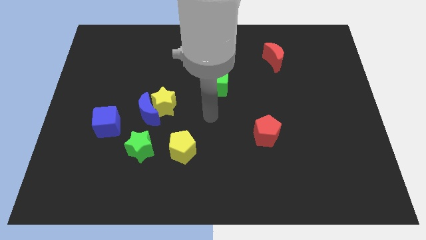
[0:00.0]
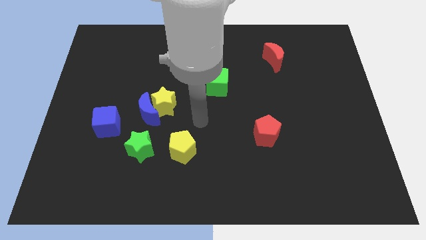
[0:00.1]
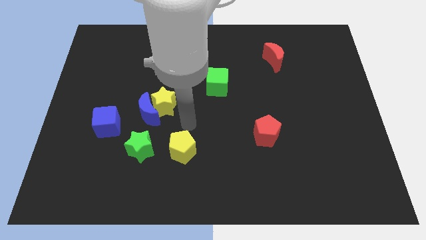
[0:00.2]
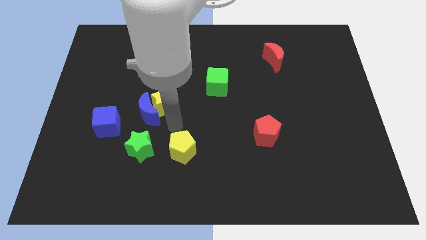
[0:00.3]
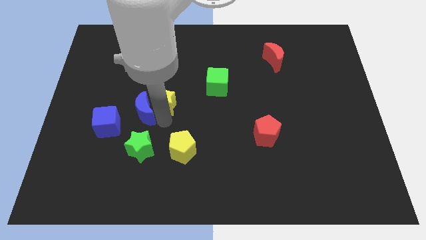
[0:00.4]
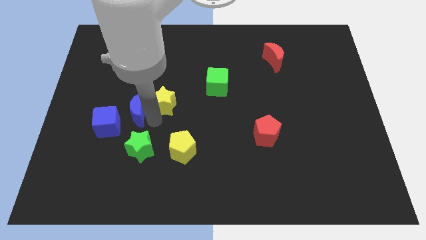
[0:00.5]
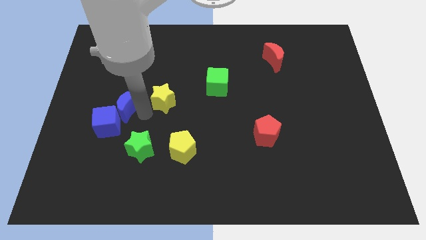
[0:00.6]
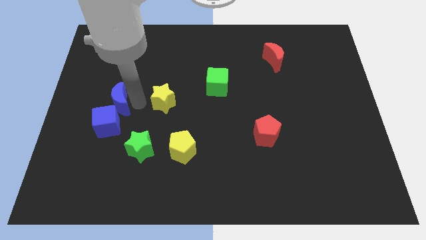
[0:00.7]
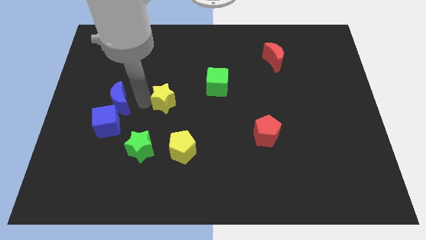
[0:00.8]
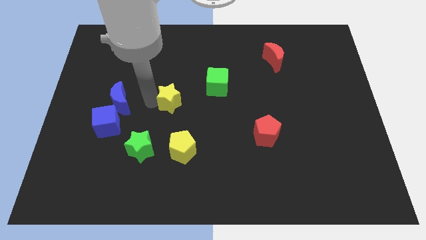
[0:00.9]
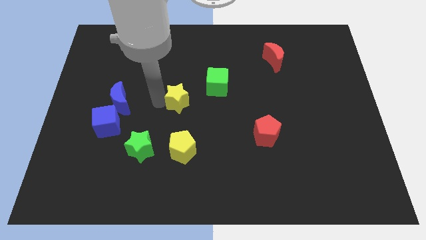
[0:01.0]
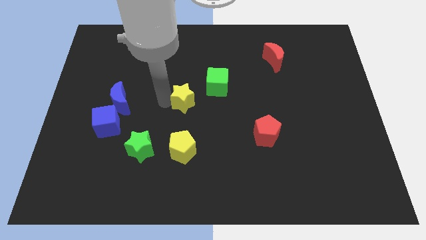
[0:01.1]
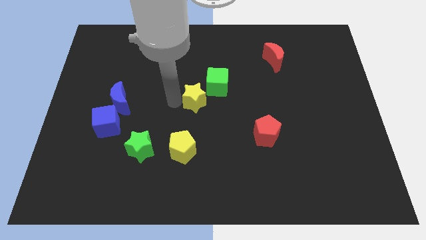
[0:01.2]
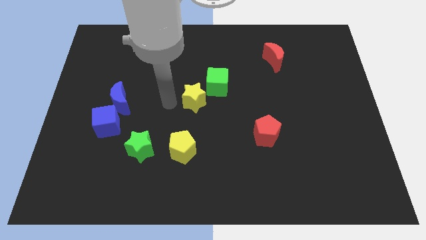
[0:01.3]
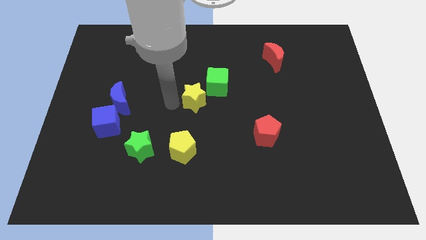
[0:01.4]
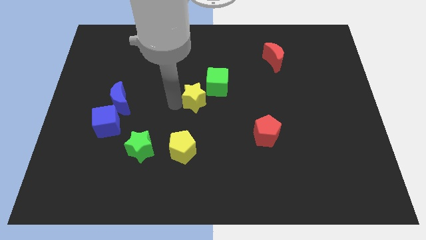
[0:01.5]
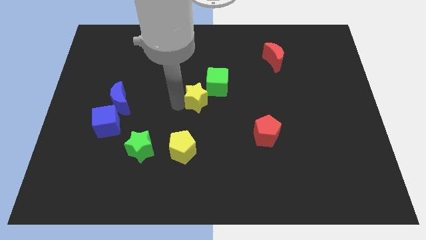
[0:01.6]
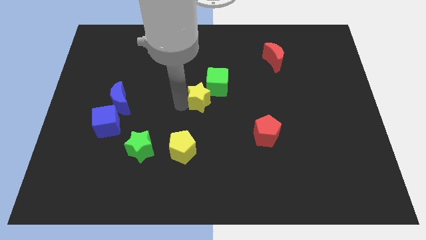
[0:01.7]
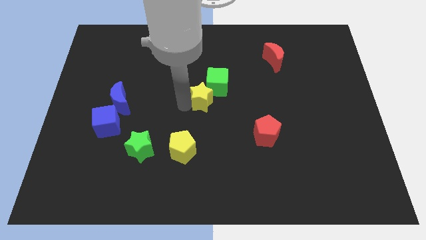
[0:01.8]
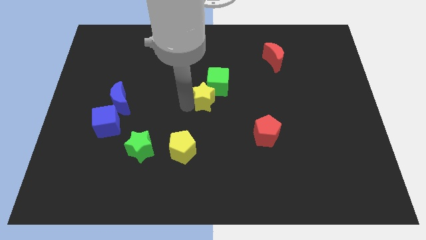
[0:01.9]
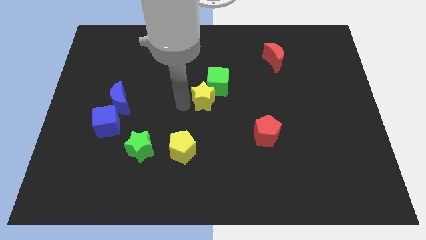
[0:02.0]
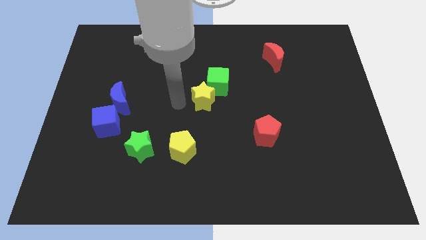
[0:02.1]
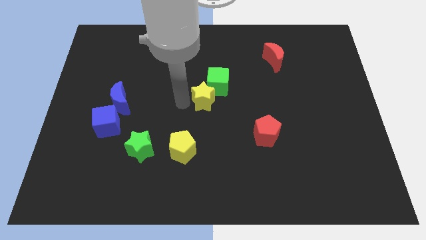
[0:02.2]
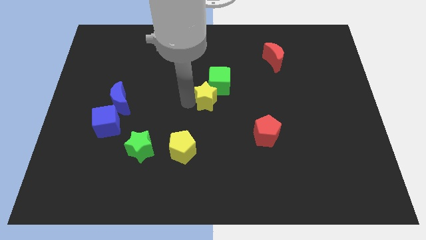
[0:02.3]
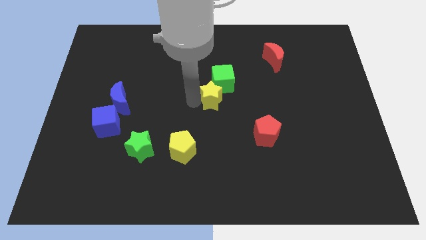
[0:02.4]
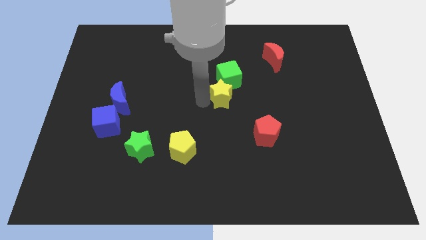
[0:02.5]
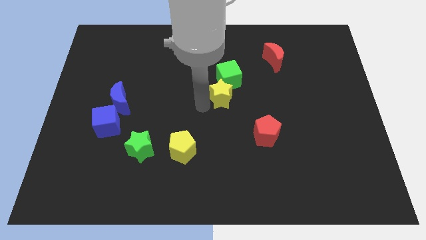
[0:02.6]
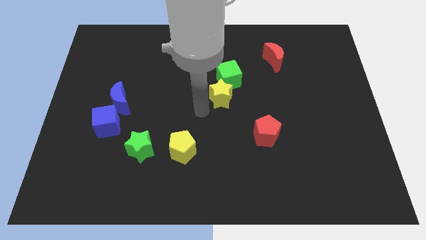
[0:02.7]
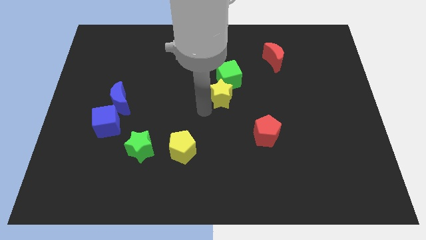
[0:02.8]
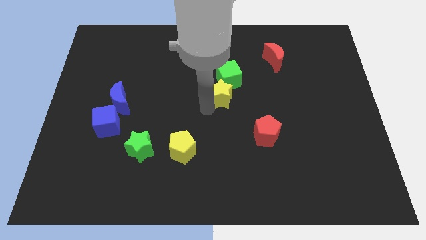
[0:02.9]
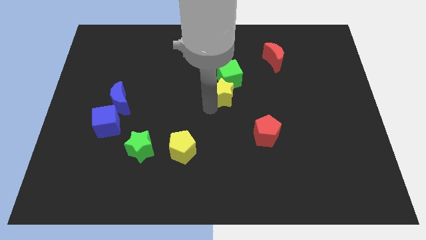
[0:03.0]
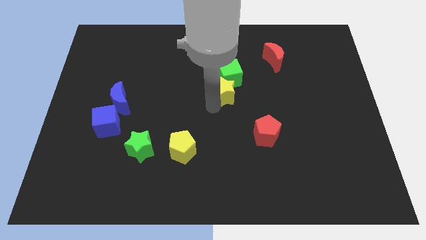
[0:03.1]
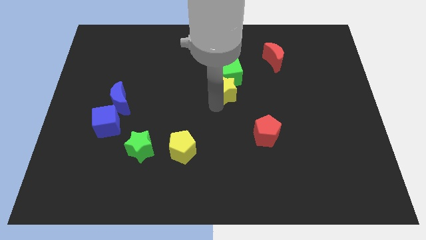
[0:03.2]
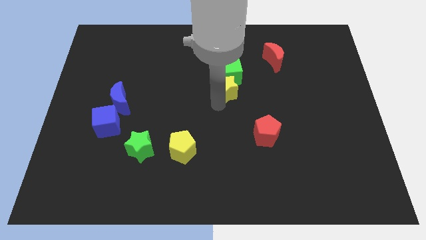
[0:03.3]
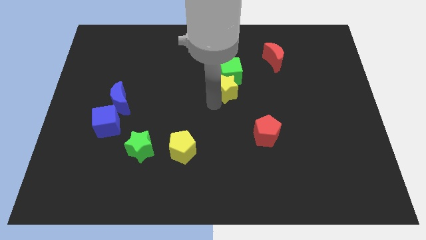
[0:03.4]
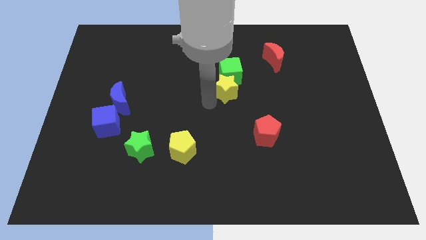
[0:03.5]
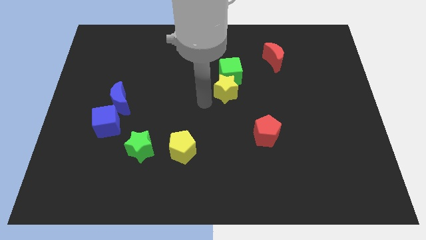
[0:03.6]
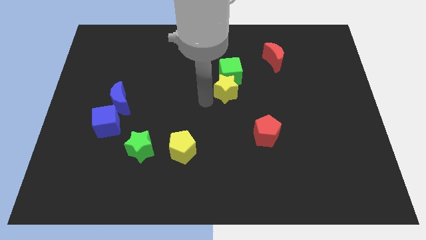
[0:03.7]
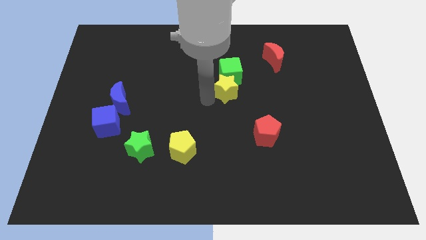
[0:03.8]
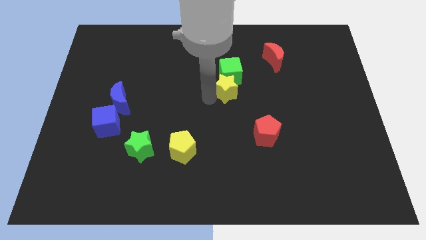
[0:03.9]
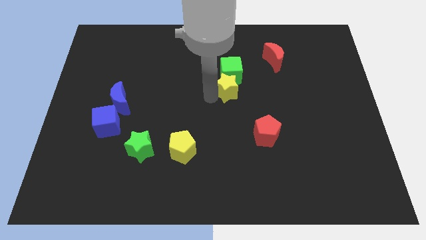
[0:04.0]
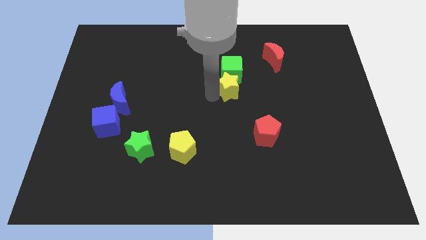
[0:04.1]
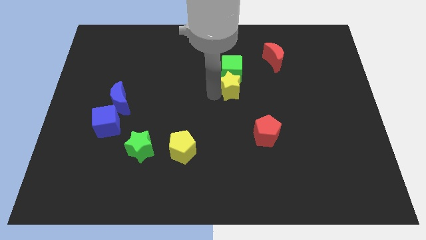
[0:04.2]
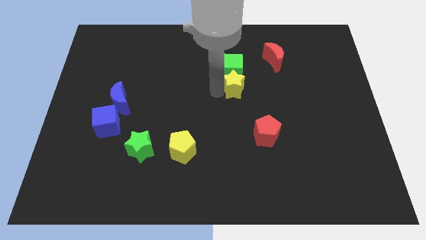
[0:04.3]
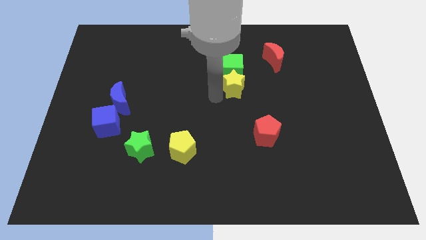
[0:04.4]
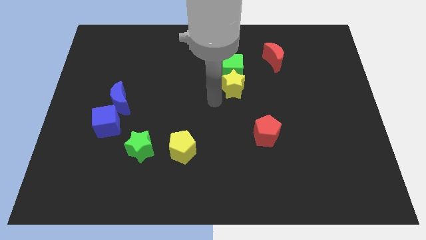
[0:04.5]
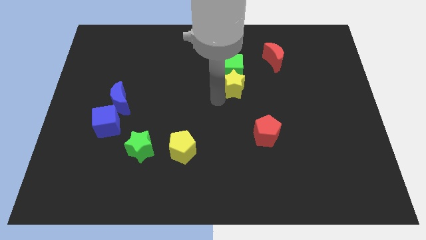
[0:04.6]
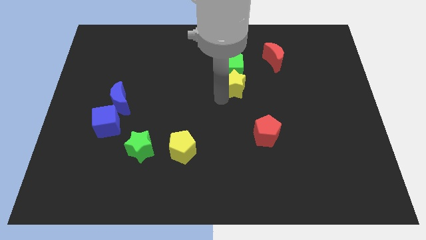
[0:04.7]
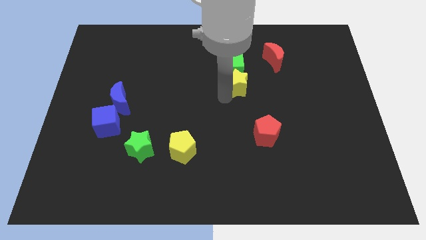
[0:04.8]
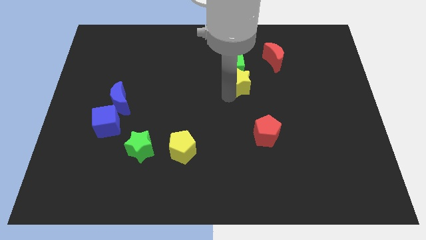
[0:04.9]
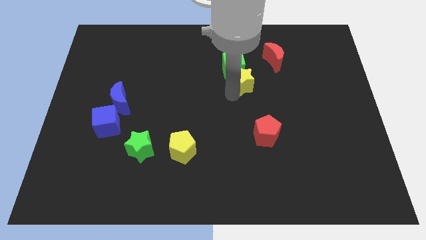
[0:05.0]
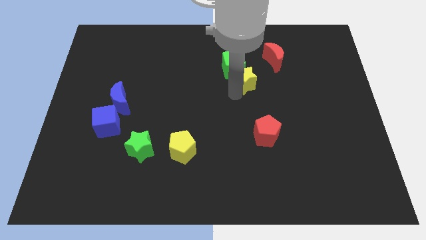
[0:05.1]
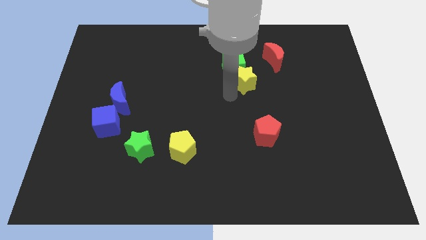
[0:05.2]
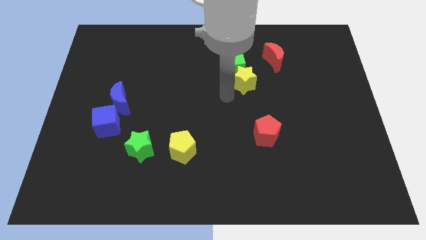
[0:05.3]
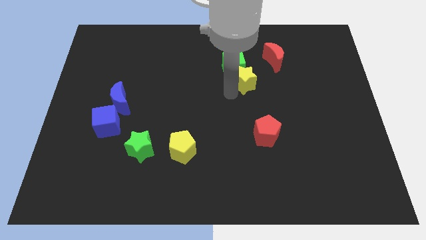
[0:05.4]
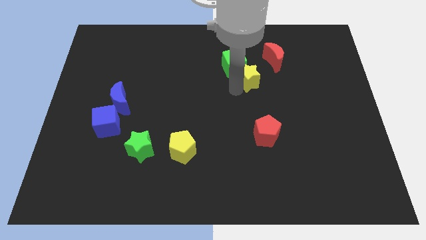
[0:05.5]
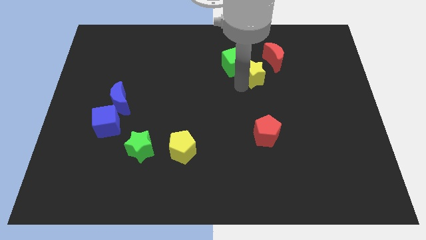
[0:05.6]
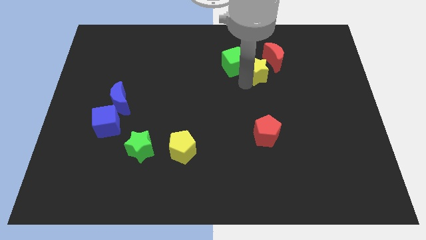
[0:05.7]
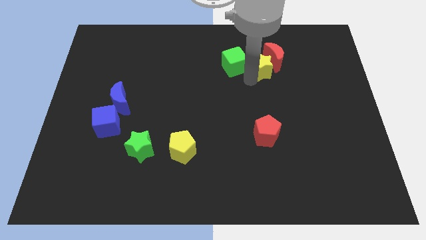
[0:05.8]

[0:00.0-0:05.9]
move the yellow star towards the red moon

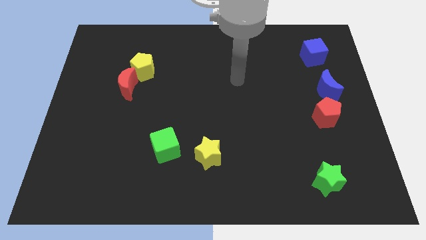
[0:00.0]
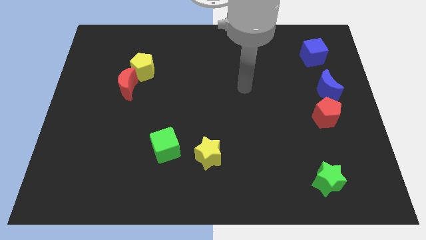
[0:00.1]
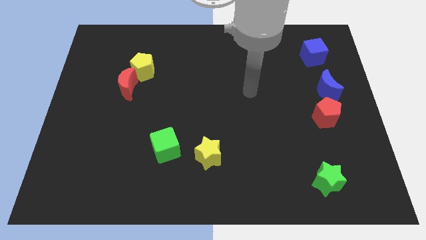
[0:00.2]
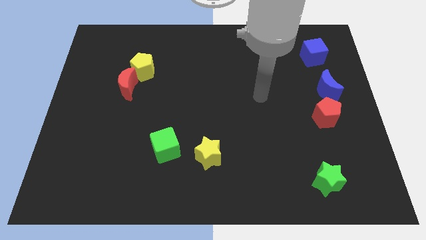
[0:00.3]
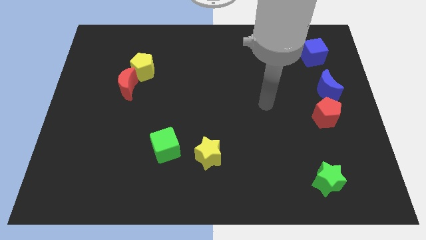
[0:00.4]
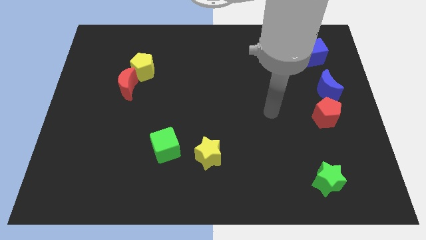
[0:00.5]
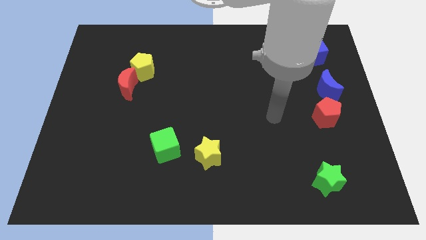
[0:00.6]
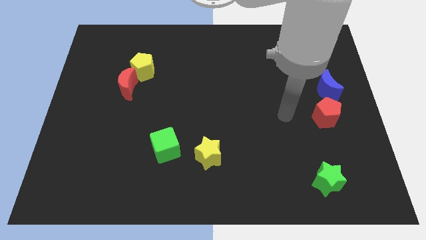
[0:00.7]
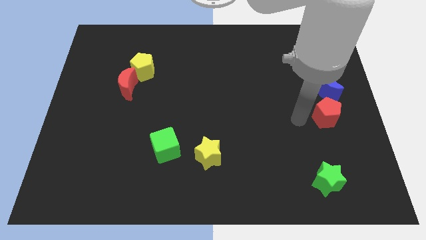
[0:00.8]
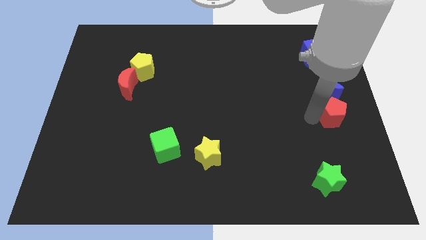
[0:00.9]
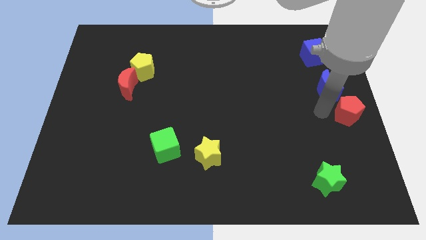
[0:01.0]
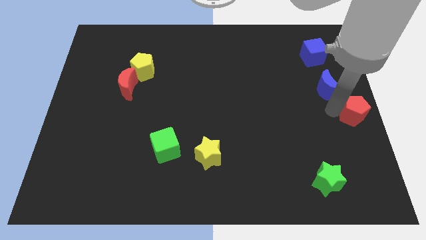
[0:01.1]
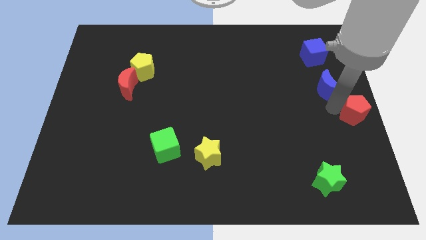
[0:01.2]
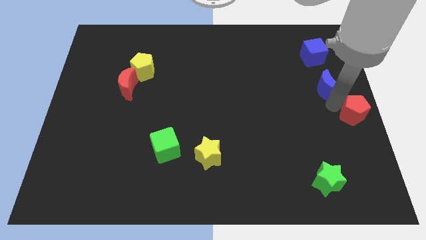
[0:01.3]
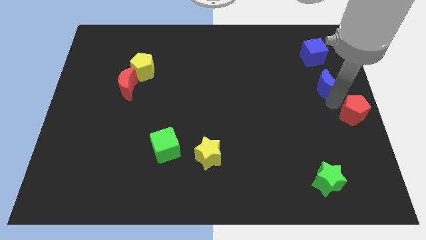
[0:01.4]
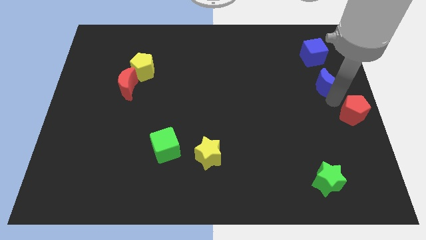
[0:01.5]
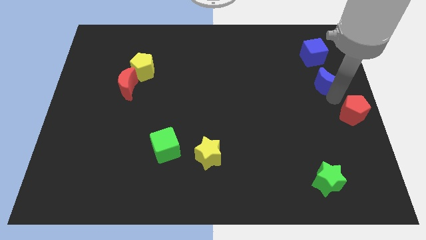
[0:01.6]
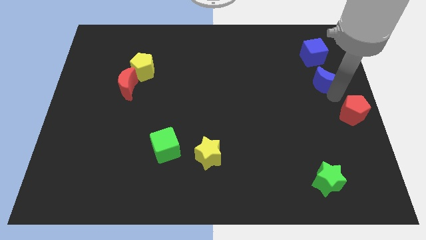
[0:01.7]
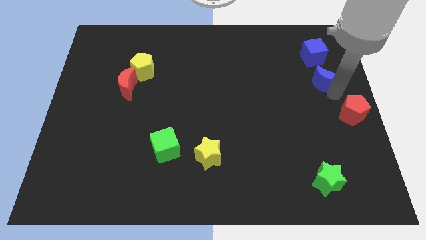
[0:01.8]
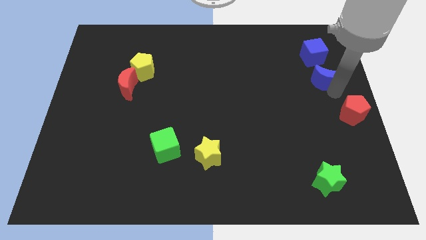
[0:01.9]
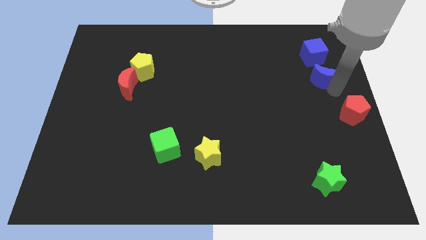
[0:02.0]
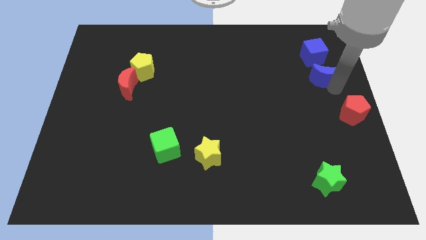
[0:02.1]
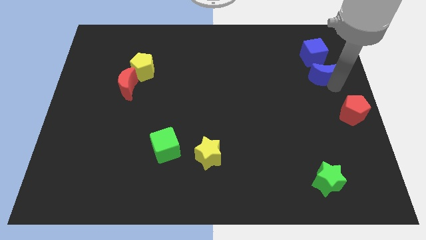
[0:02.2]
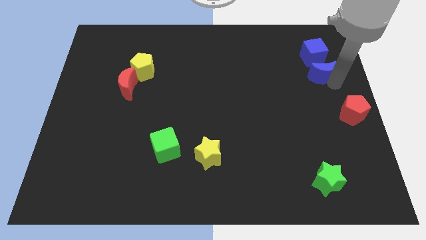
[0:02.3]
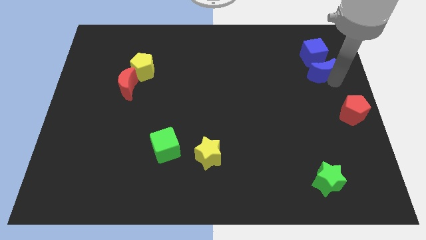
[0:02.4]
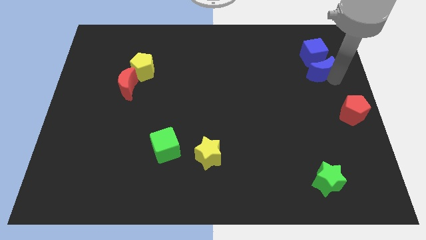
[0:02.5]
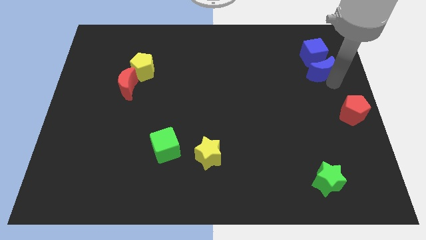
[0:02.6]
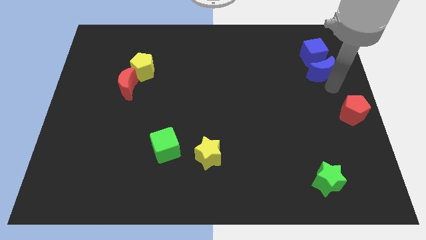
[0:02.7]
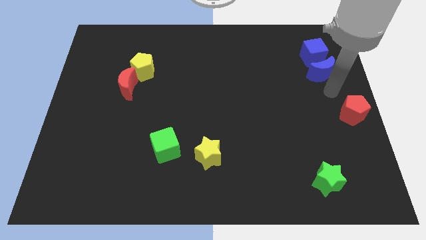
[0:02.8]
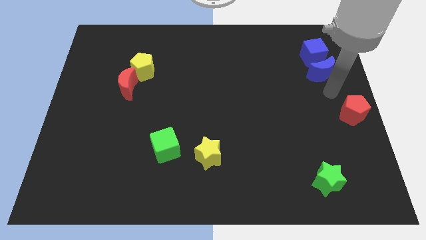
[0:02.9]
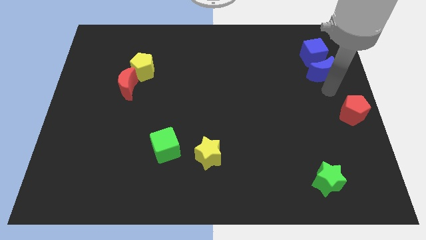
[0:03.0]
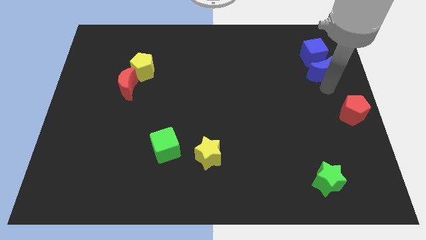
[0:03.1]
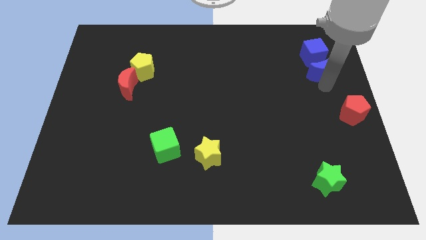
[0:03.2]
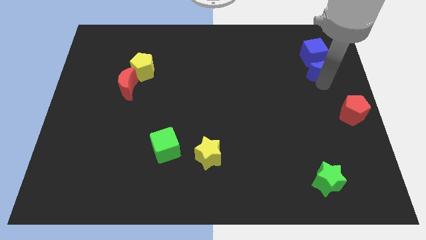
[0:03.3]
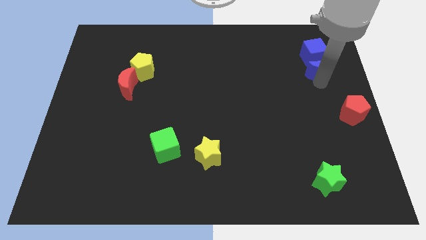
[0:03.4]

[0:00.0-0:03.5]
push the blue moon towards the blue cube
